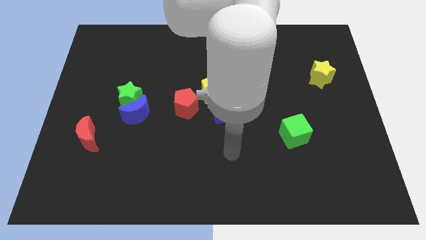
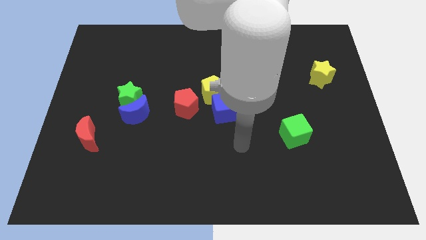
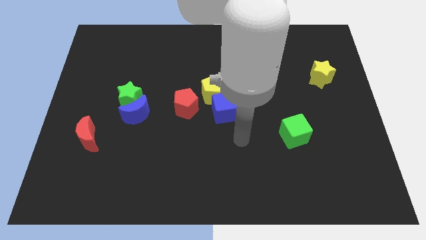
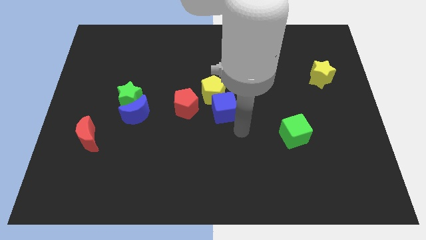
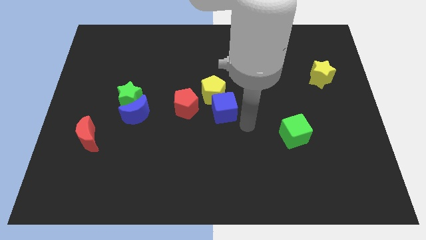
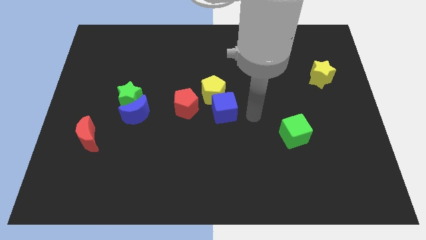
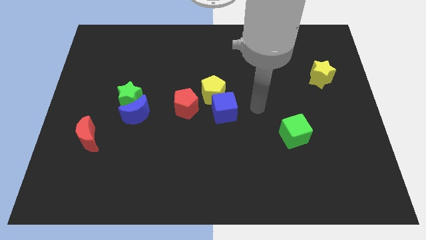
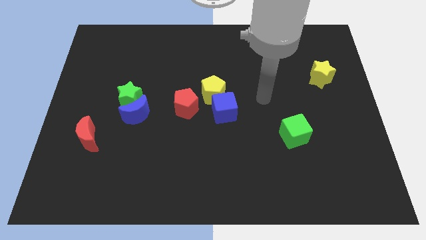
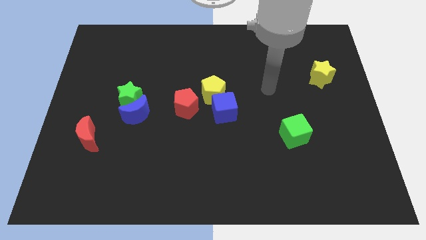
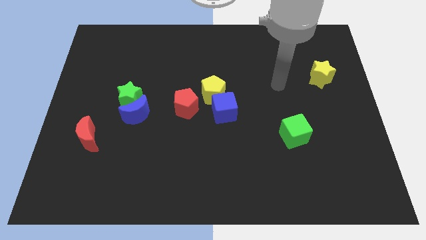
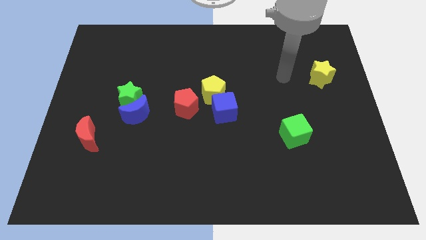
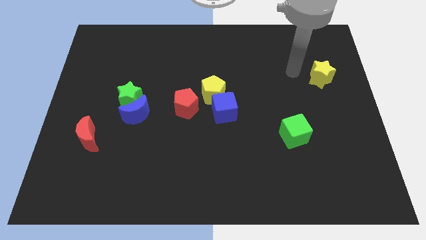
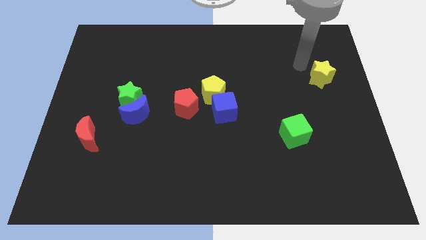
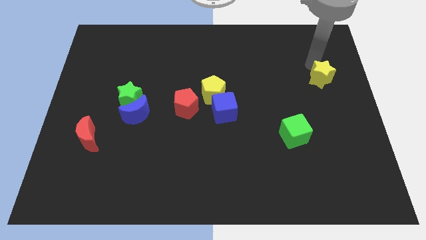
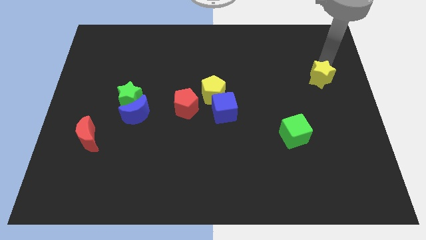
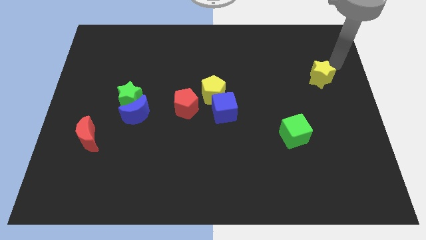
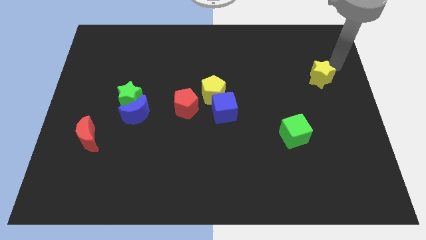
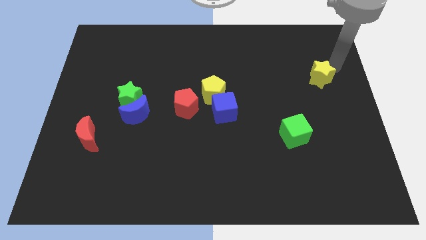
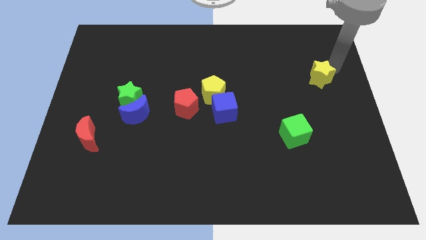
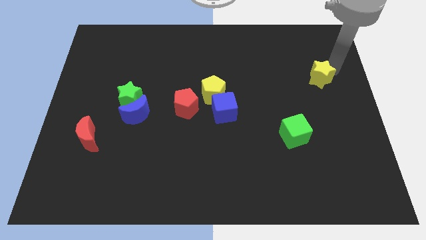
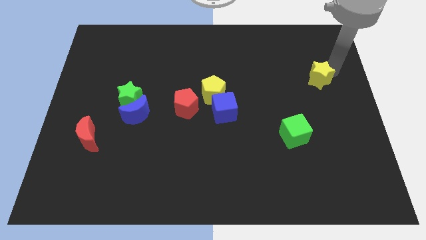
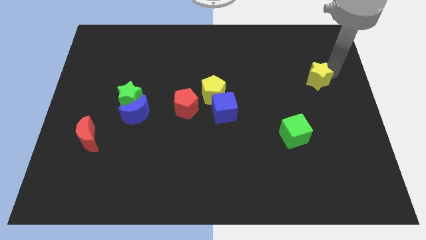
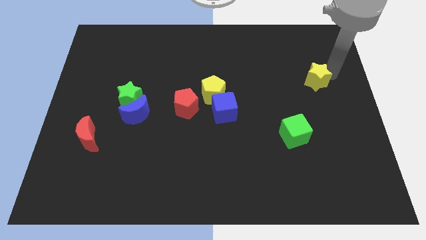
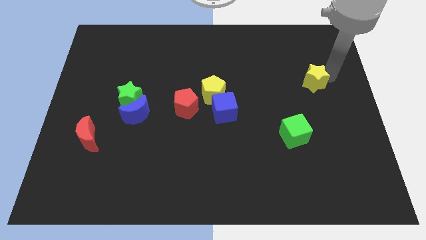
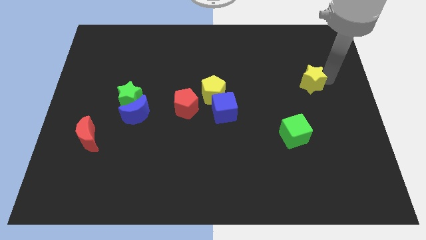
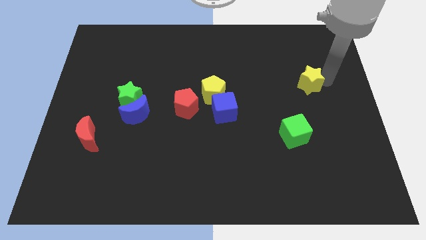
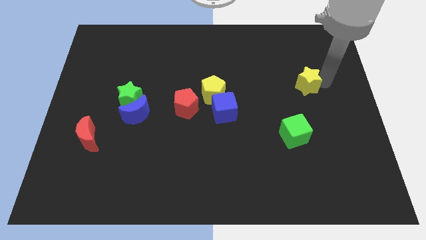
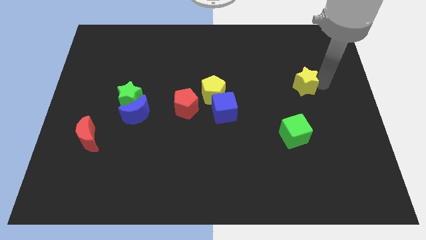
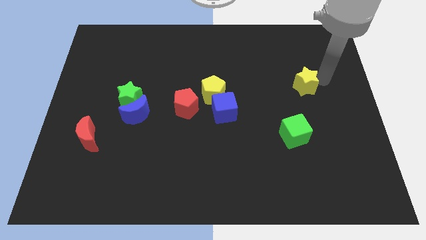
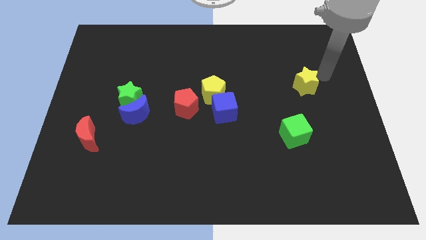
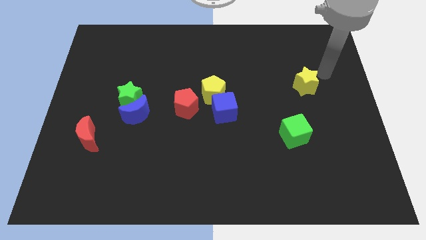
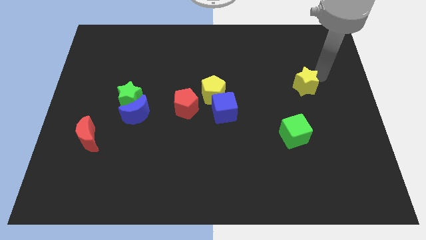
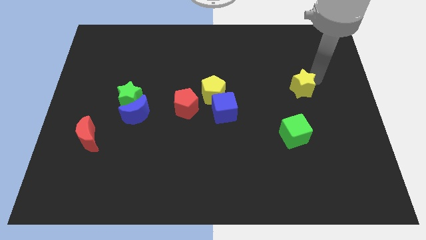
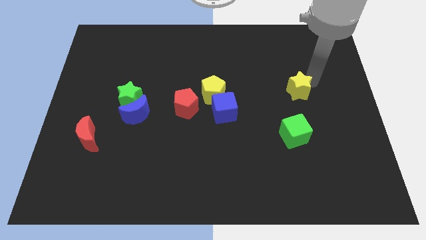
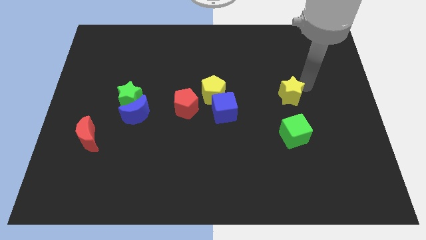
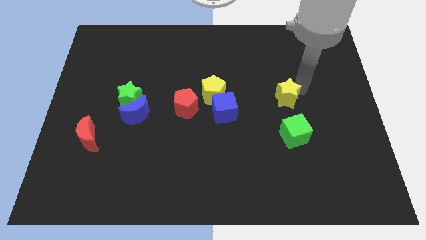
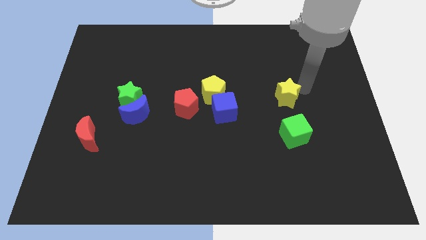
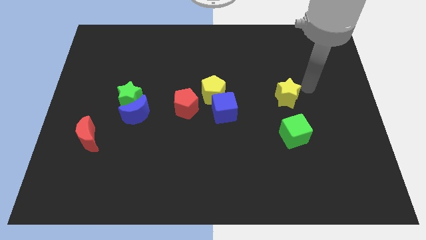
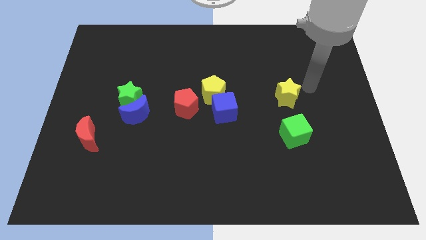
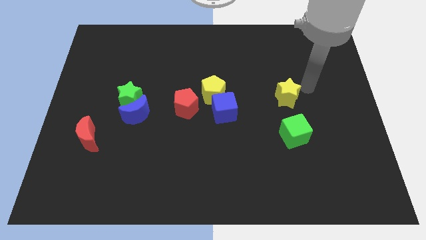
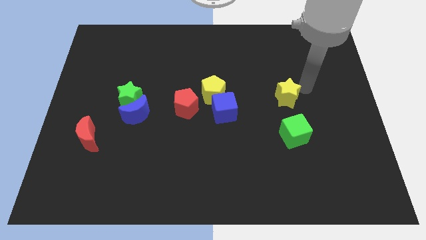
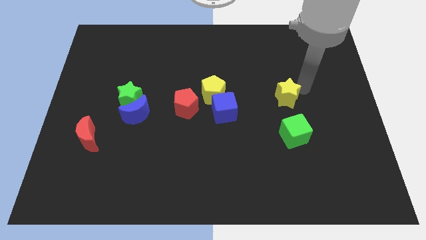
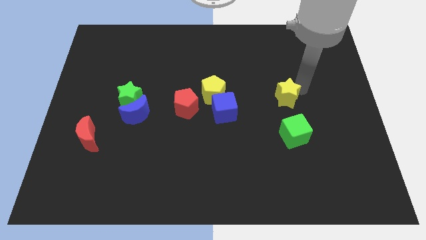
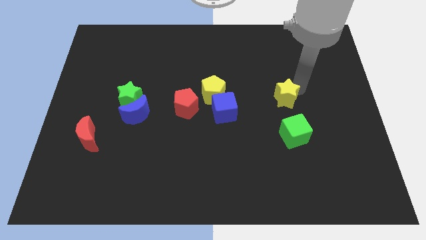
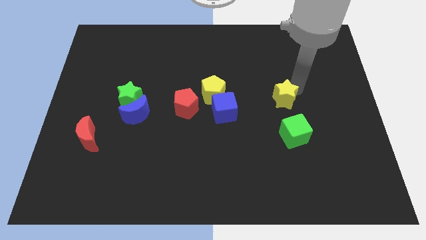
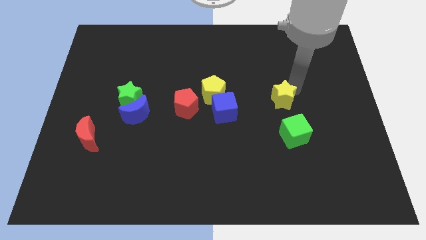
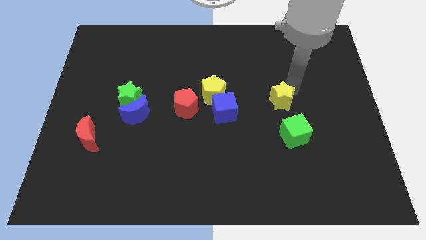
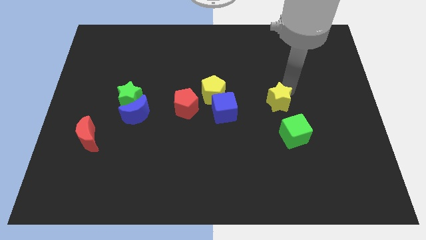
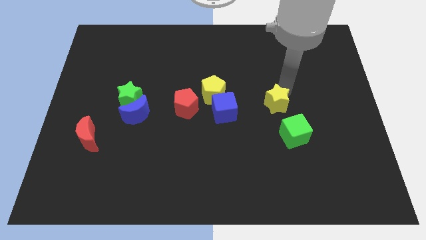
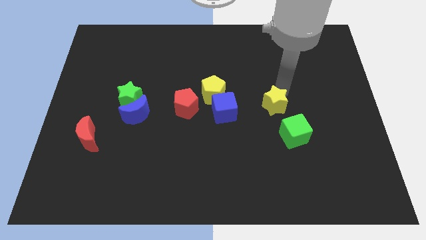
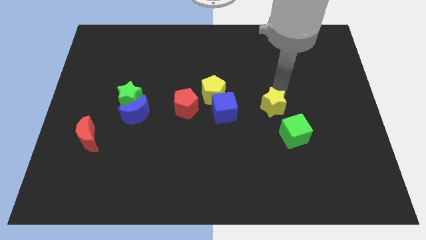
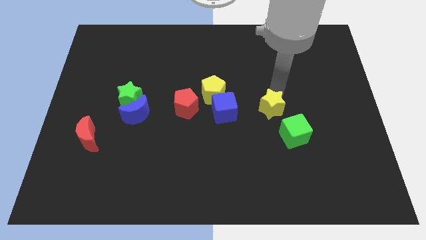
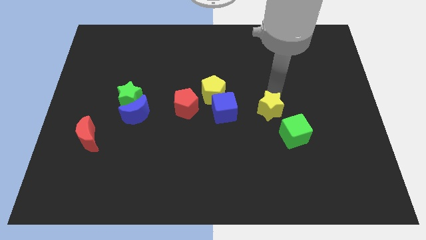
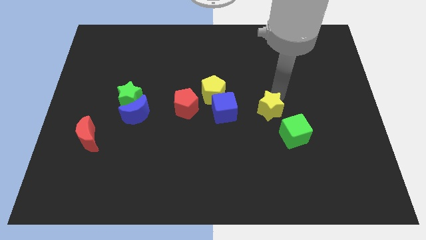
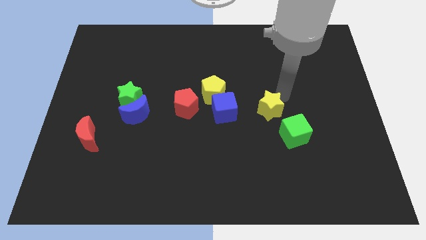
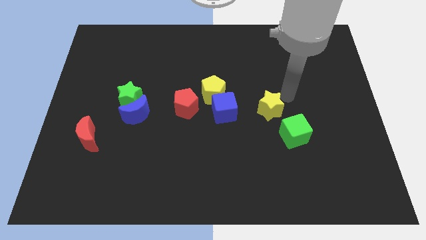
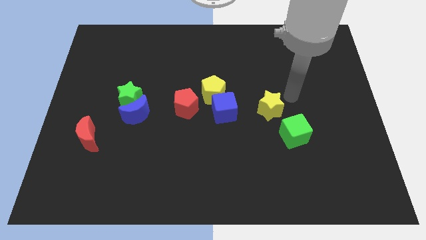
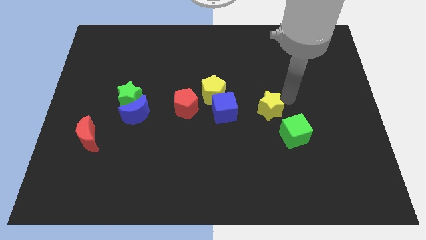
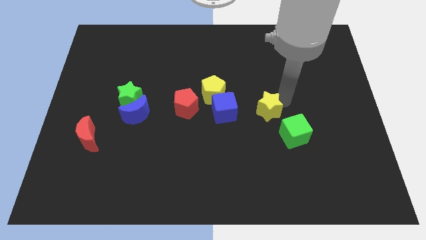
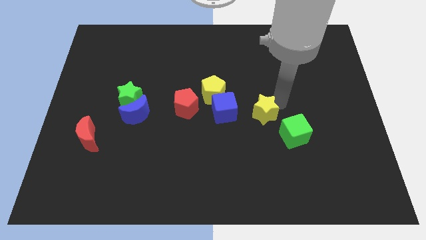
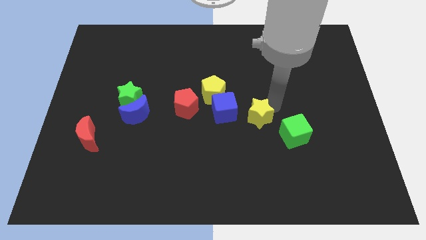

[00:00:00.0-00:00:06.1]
move the yellow star to the bottom right side of the blue cube
